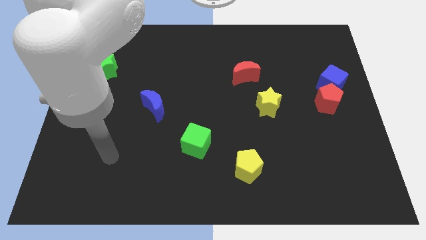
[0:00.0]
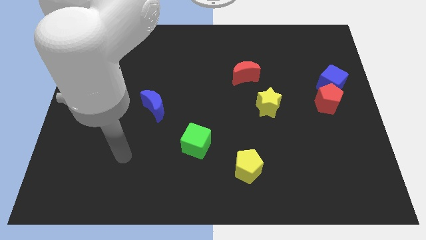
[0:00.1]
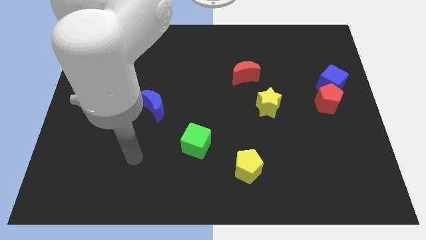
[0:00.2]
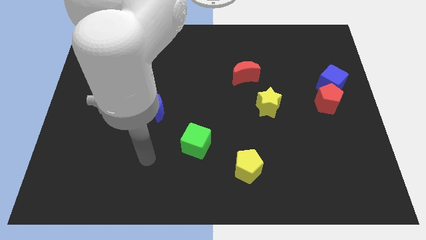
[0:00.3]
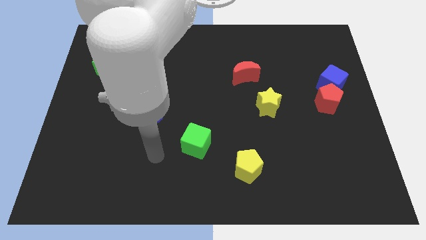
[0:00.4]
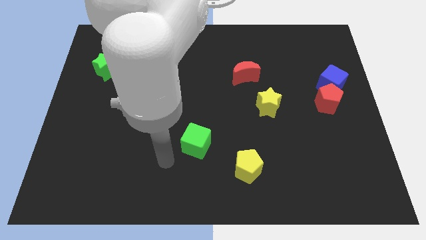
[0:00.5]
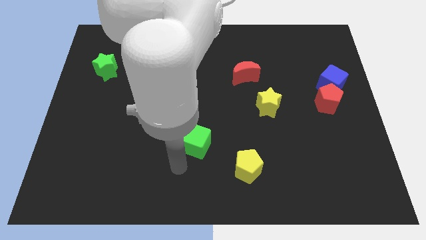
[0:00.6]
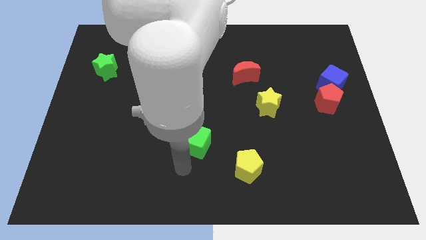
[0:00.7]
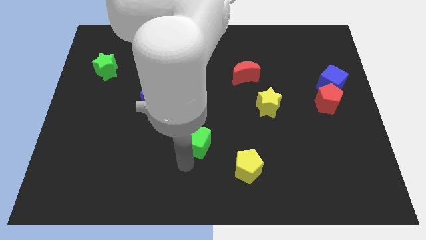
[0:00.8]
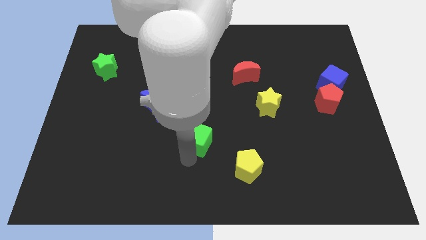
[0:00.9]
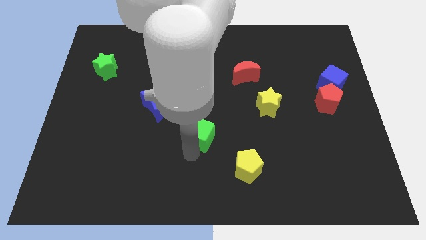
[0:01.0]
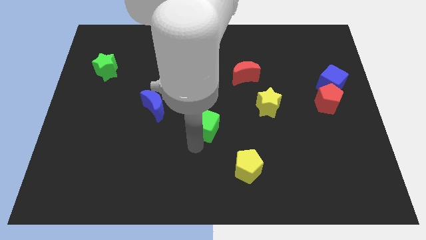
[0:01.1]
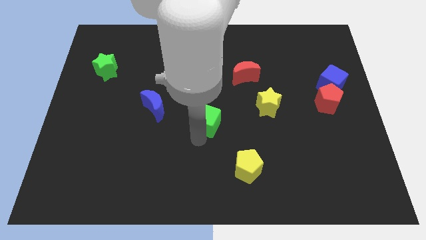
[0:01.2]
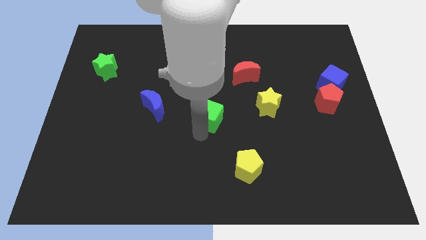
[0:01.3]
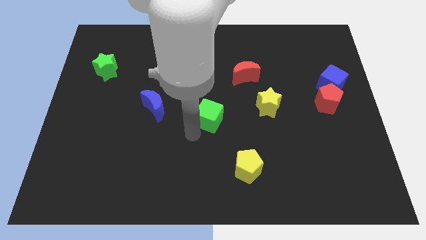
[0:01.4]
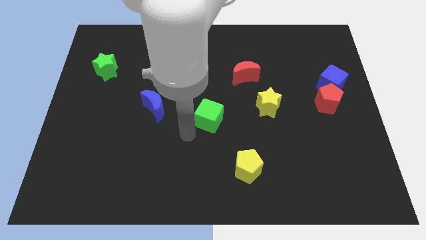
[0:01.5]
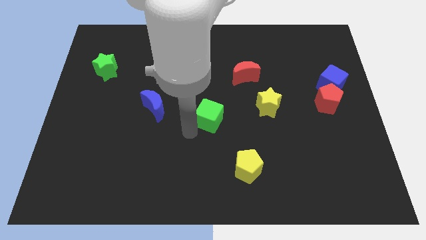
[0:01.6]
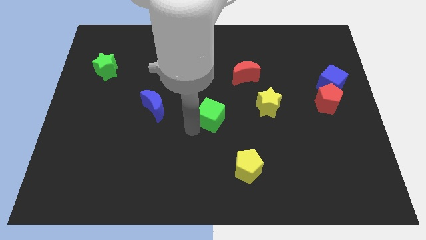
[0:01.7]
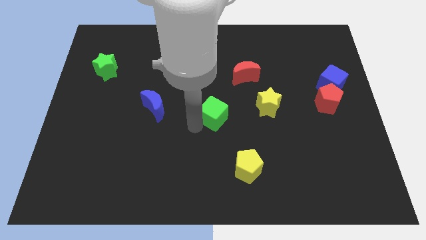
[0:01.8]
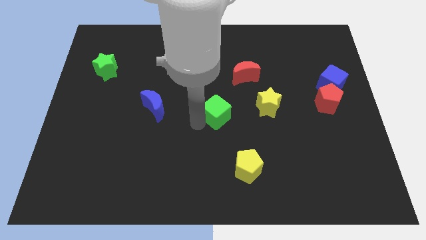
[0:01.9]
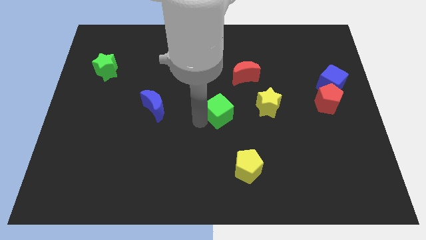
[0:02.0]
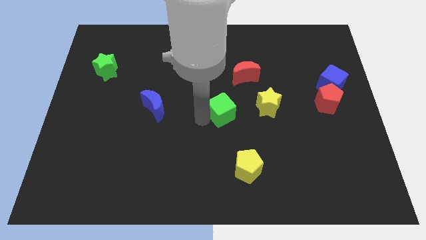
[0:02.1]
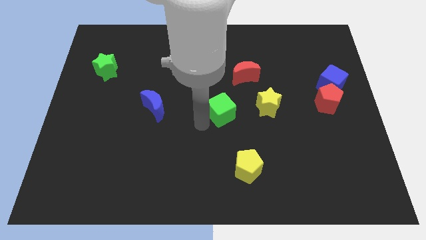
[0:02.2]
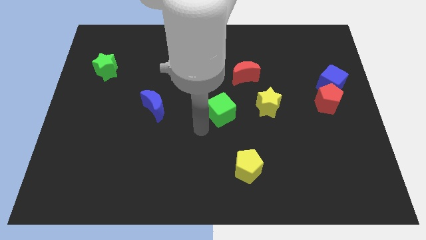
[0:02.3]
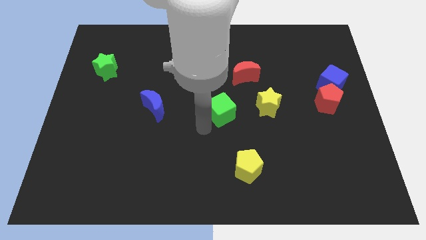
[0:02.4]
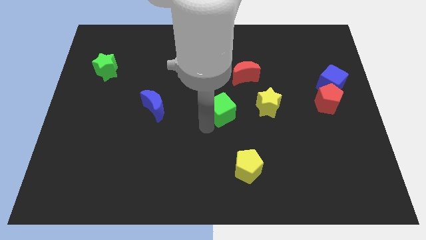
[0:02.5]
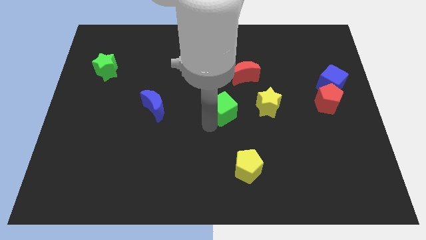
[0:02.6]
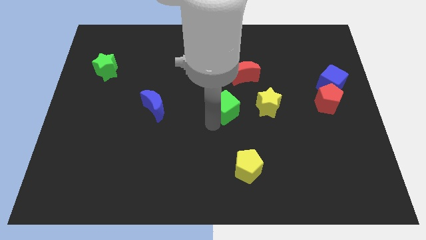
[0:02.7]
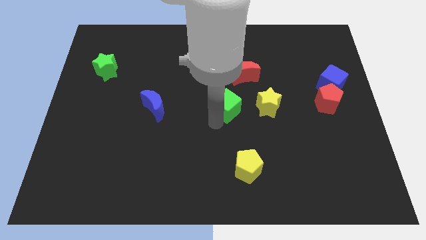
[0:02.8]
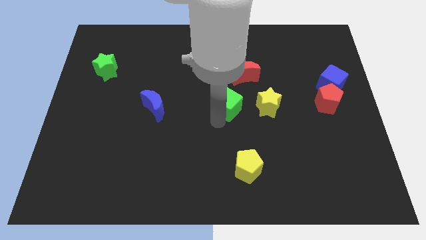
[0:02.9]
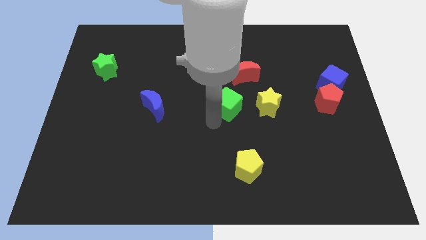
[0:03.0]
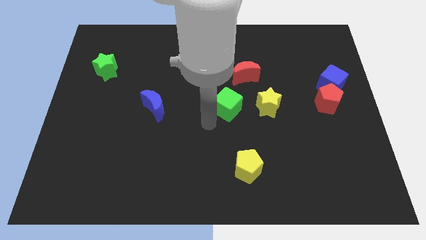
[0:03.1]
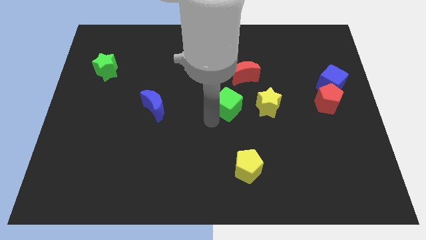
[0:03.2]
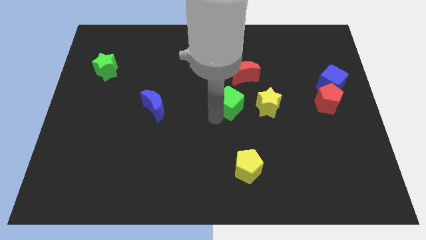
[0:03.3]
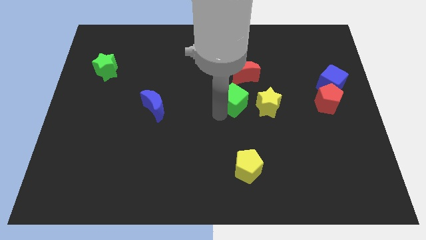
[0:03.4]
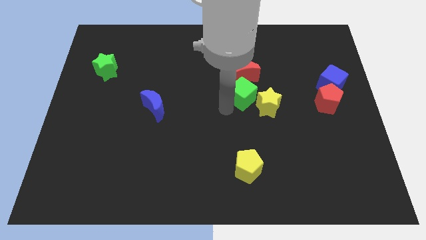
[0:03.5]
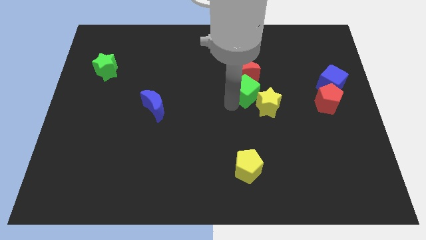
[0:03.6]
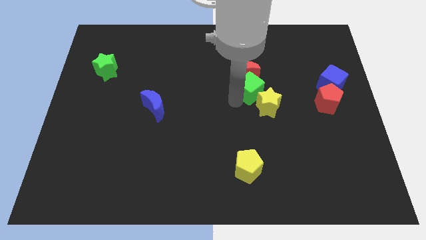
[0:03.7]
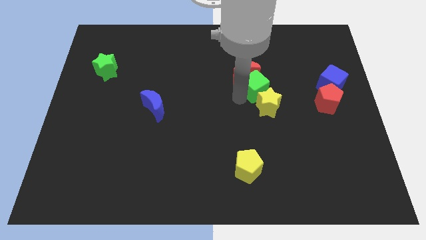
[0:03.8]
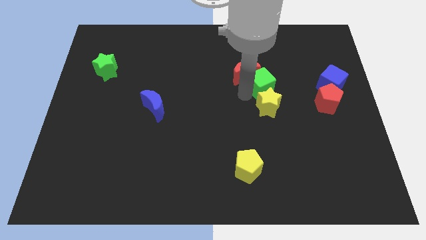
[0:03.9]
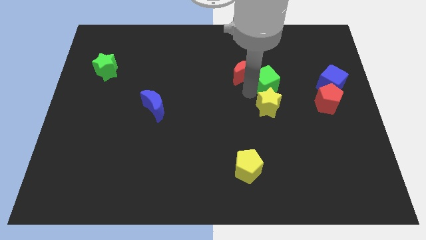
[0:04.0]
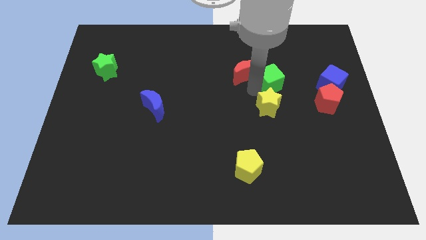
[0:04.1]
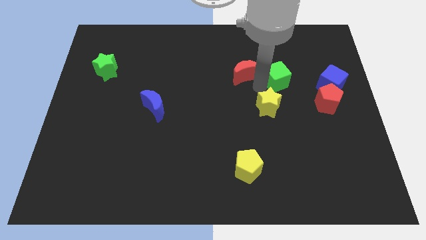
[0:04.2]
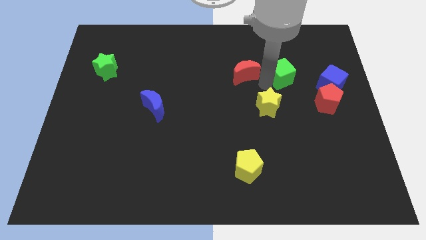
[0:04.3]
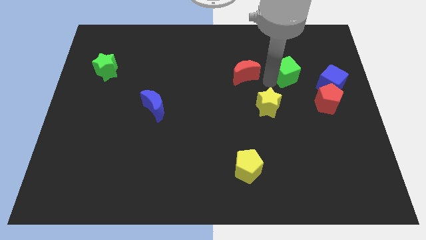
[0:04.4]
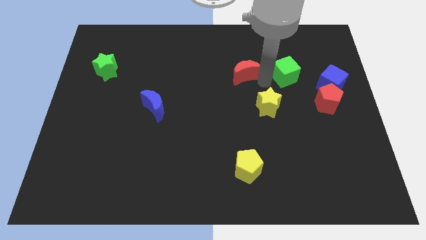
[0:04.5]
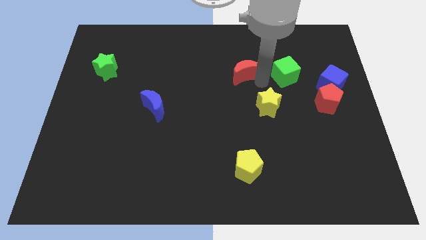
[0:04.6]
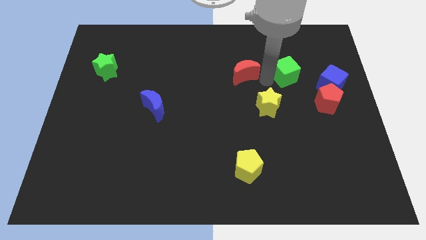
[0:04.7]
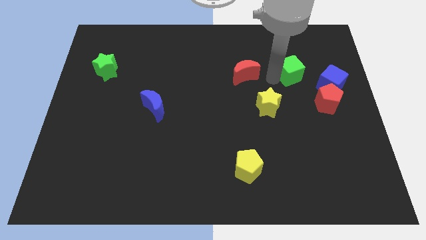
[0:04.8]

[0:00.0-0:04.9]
put the green cube to the top left of the blue cube

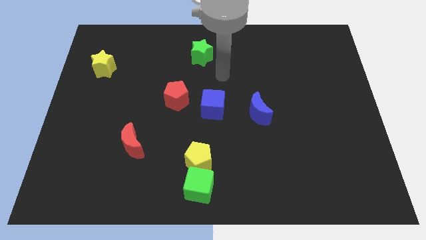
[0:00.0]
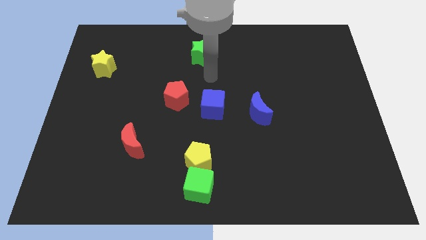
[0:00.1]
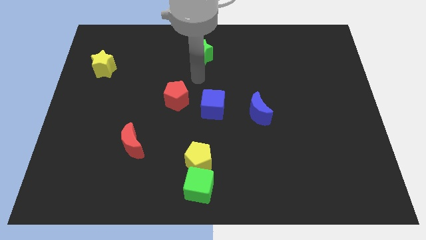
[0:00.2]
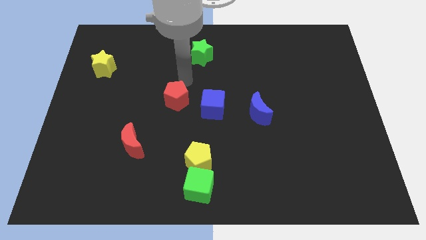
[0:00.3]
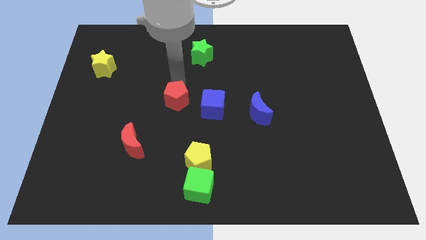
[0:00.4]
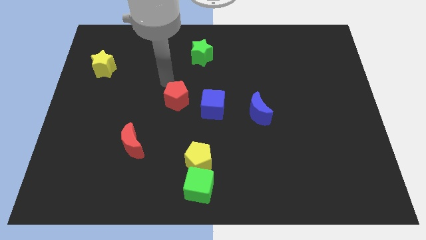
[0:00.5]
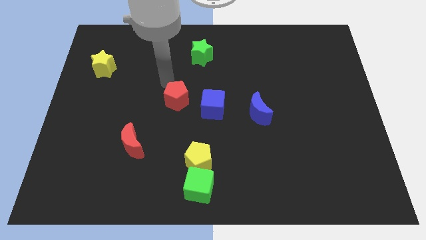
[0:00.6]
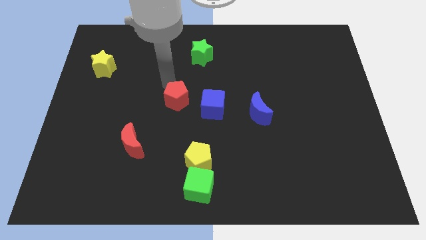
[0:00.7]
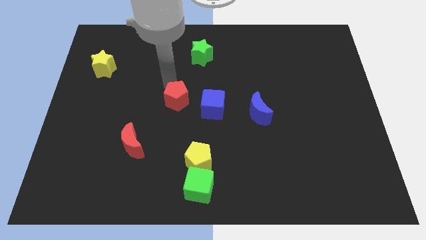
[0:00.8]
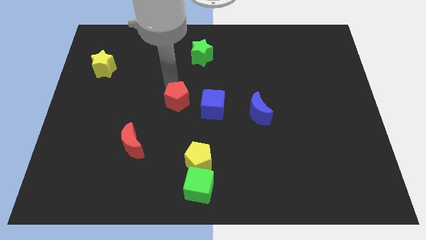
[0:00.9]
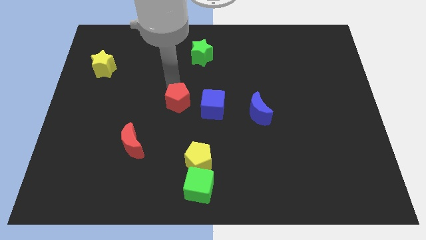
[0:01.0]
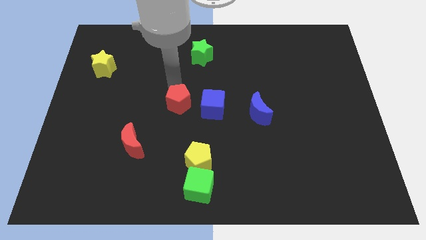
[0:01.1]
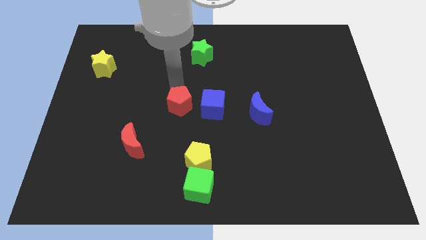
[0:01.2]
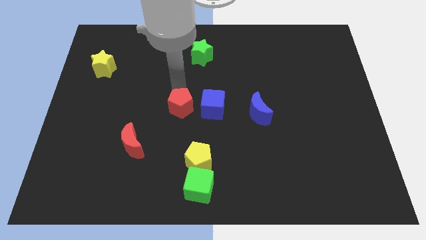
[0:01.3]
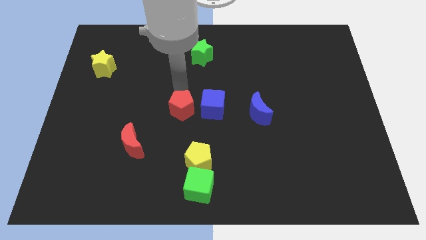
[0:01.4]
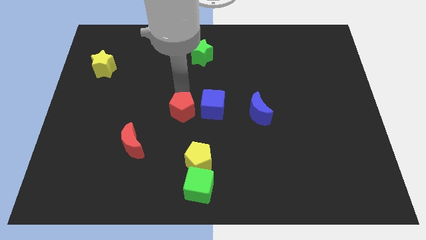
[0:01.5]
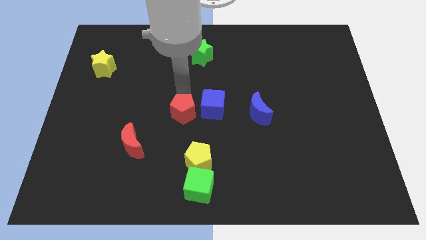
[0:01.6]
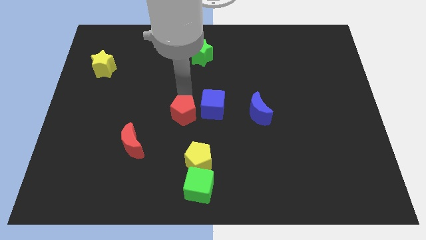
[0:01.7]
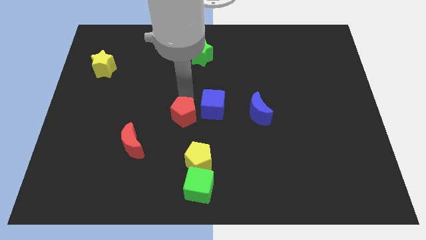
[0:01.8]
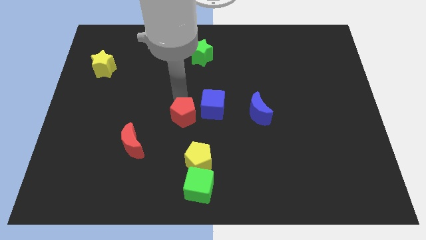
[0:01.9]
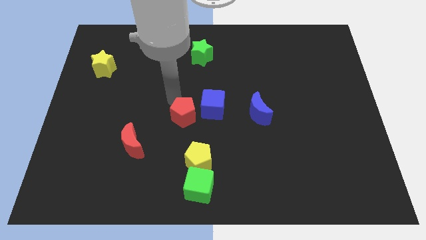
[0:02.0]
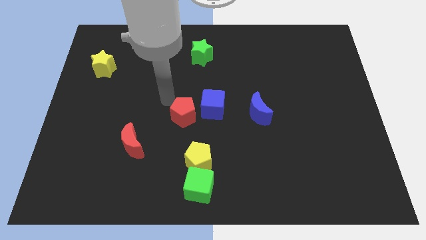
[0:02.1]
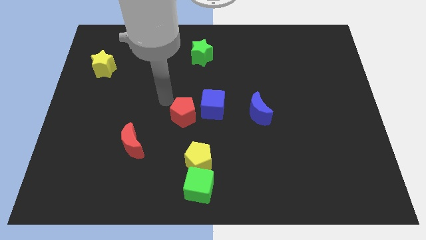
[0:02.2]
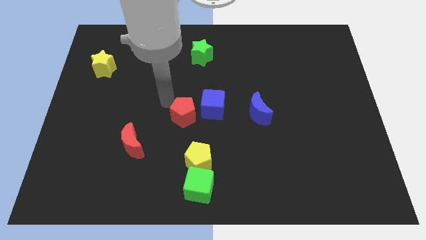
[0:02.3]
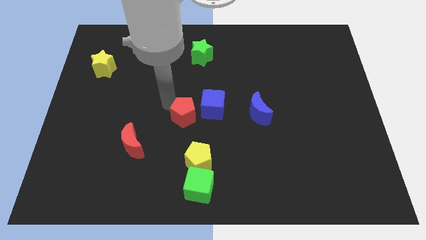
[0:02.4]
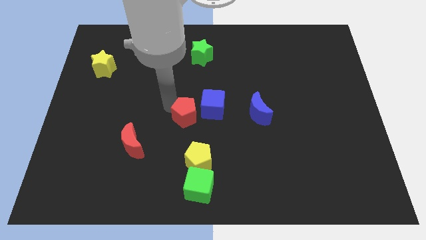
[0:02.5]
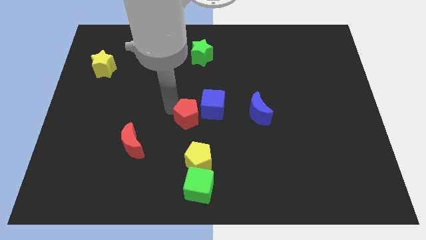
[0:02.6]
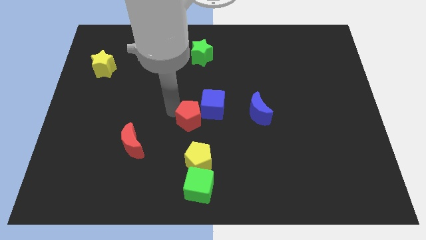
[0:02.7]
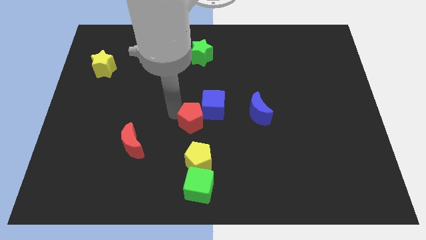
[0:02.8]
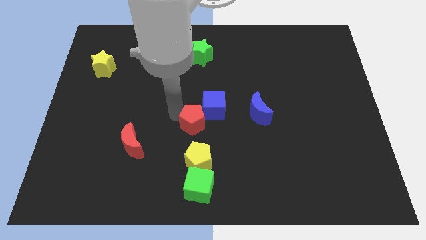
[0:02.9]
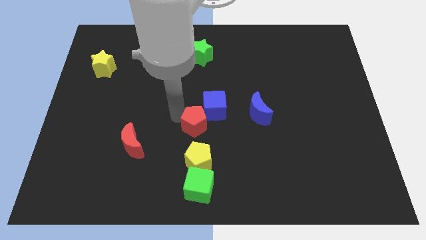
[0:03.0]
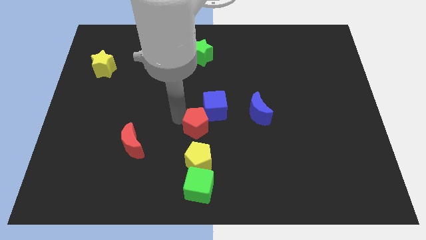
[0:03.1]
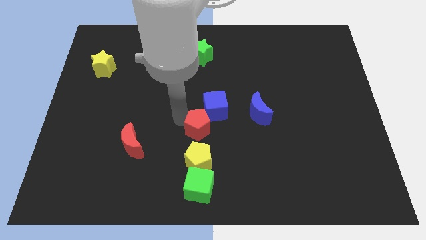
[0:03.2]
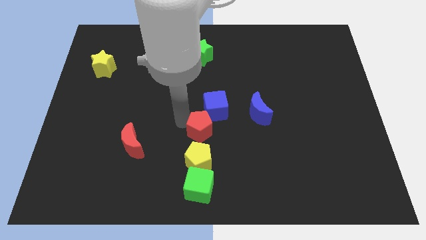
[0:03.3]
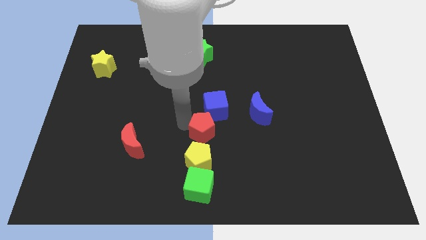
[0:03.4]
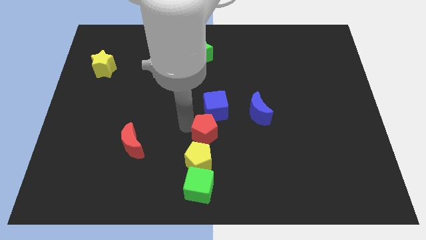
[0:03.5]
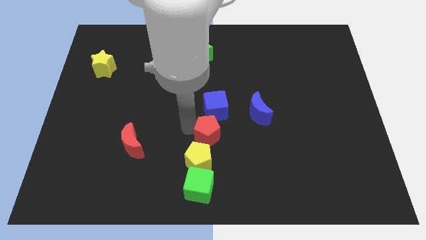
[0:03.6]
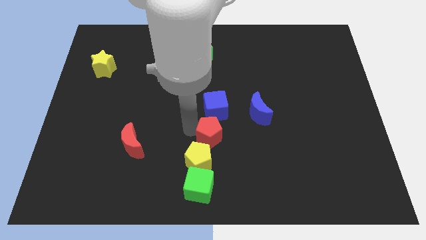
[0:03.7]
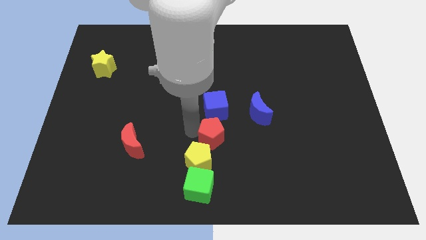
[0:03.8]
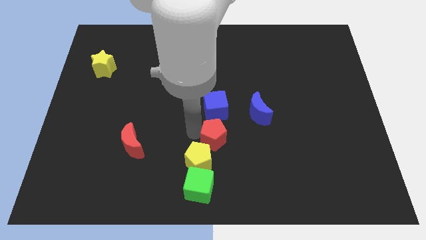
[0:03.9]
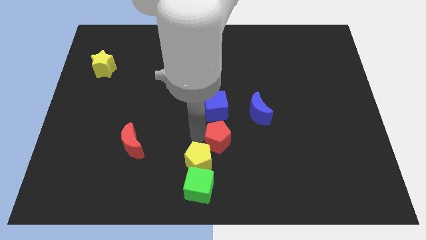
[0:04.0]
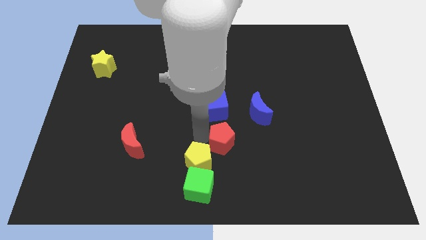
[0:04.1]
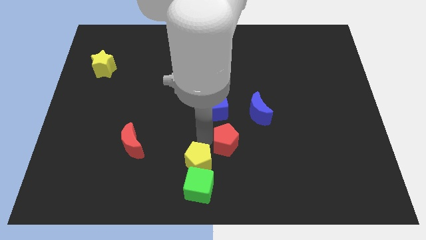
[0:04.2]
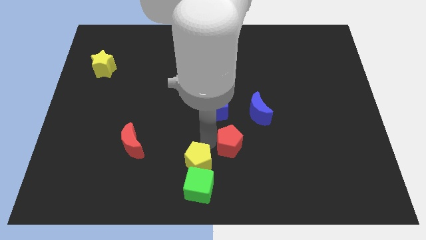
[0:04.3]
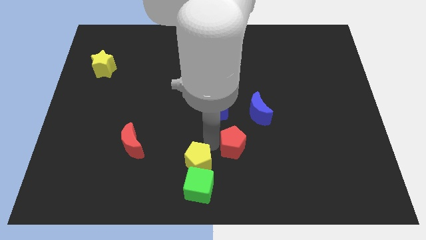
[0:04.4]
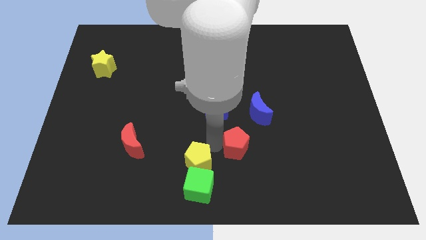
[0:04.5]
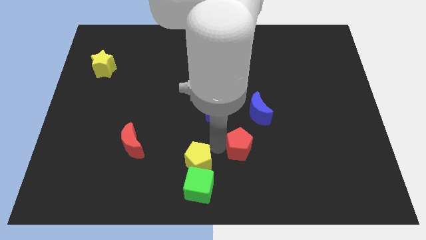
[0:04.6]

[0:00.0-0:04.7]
move the red pentagon to the bottom side of the blue moon
